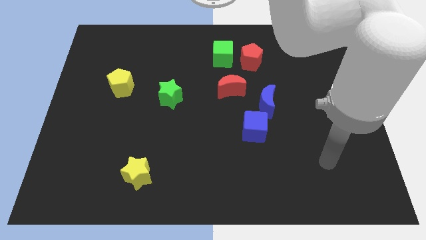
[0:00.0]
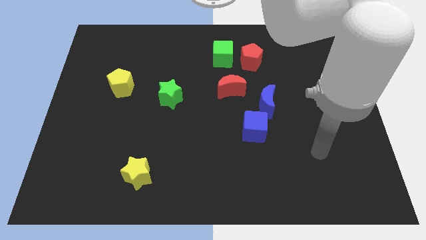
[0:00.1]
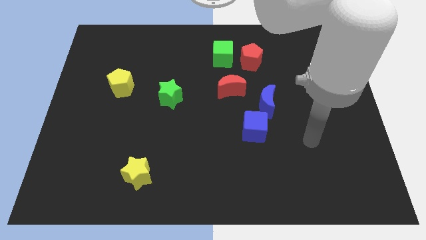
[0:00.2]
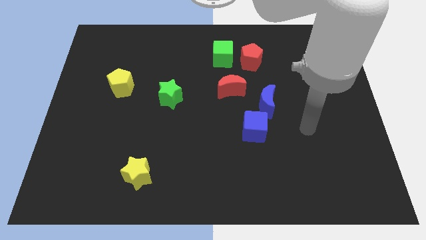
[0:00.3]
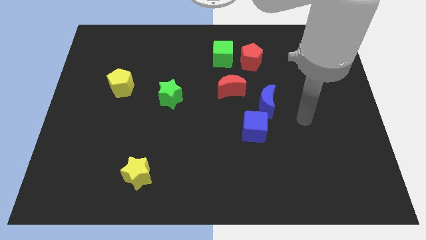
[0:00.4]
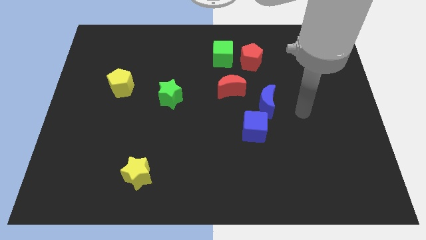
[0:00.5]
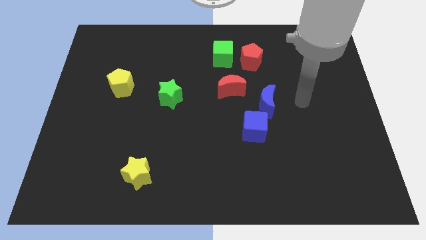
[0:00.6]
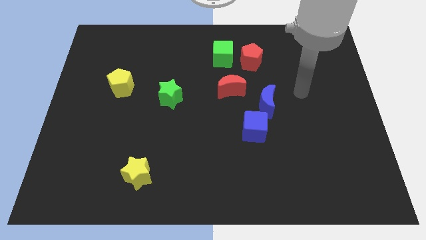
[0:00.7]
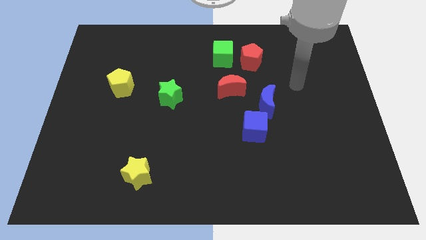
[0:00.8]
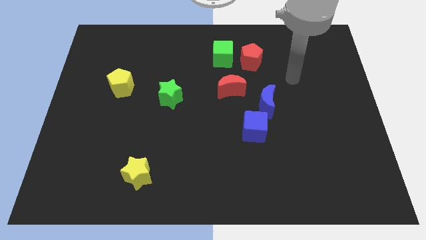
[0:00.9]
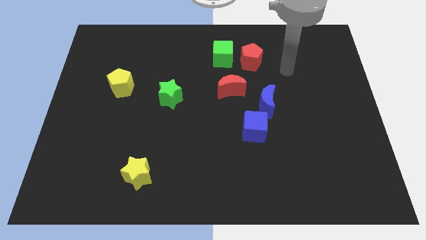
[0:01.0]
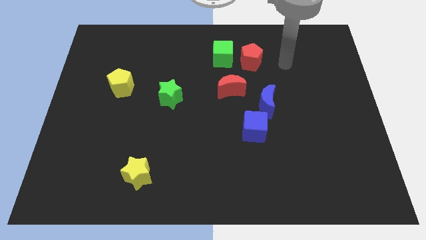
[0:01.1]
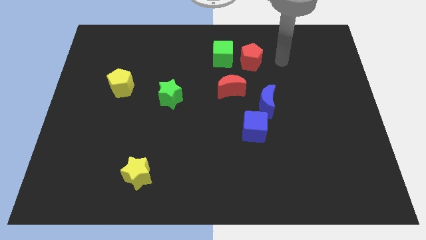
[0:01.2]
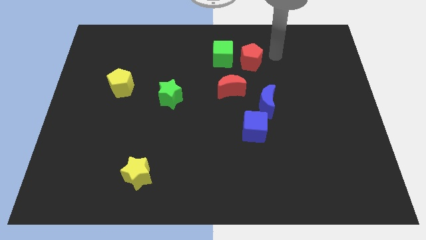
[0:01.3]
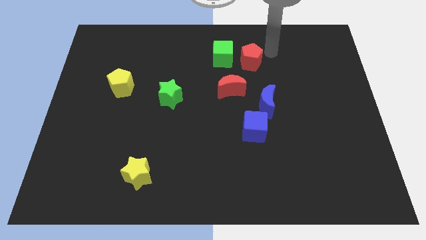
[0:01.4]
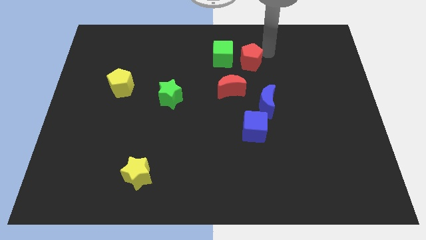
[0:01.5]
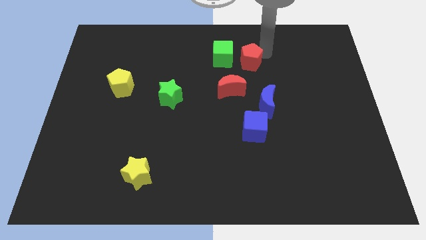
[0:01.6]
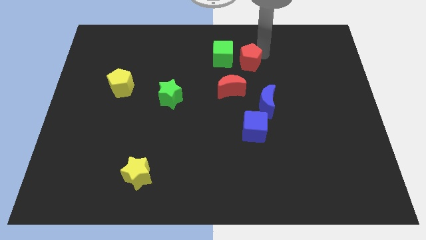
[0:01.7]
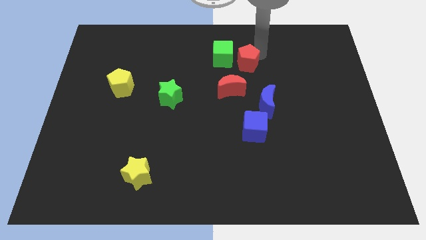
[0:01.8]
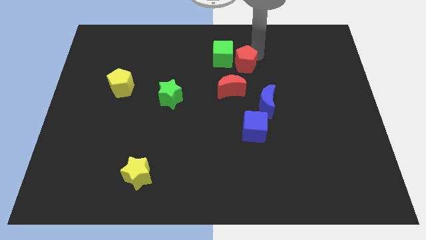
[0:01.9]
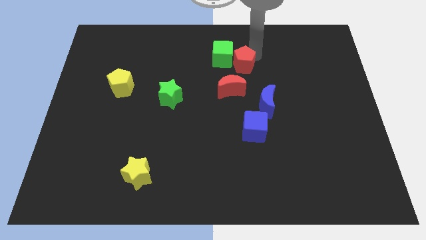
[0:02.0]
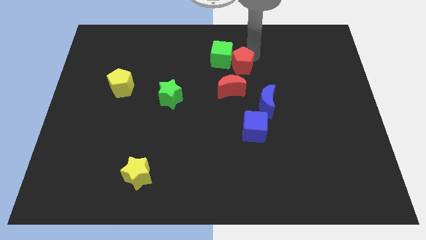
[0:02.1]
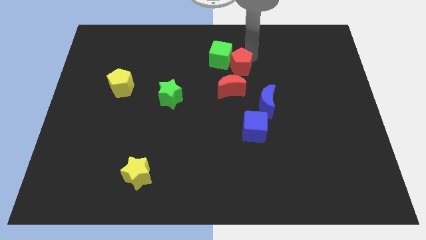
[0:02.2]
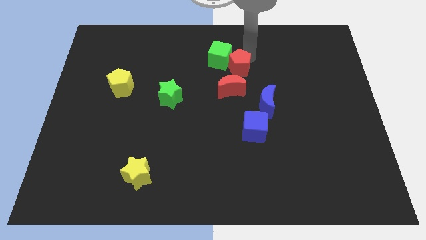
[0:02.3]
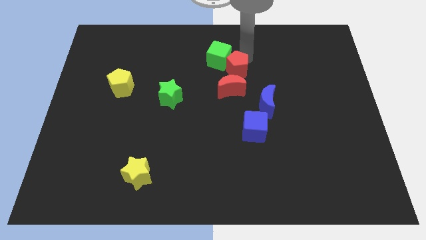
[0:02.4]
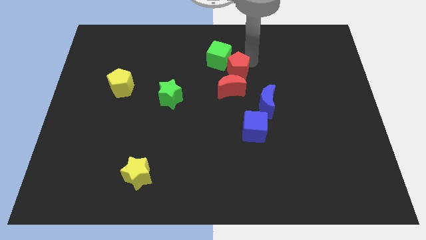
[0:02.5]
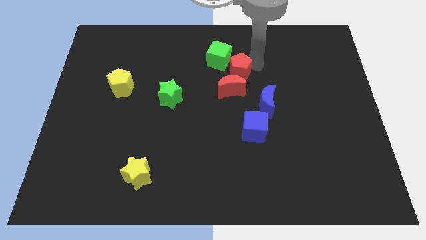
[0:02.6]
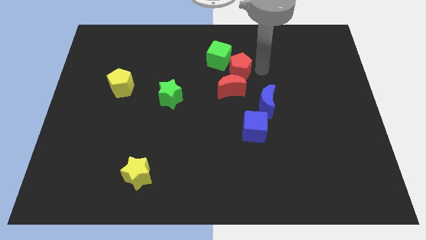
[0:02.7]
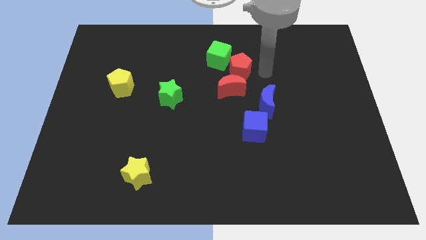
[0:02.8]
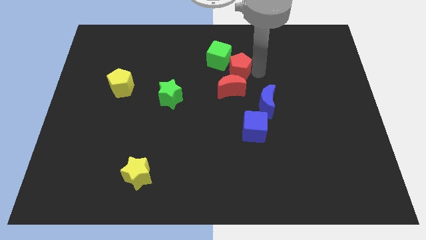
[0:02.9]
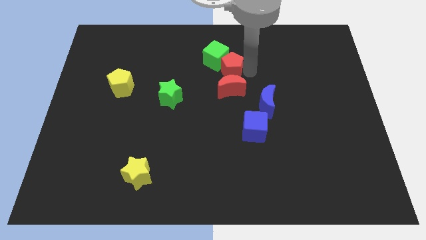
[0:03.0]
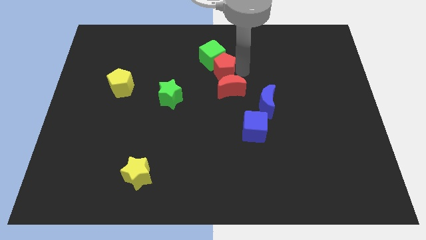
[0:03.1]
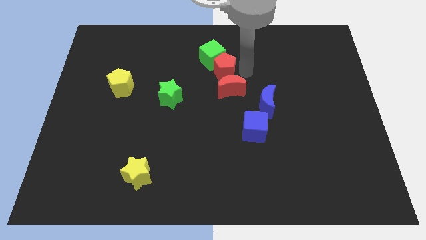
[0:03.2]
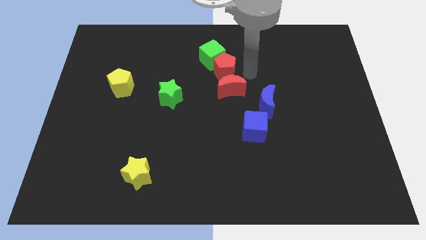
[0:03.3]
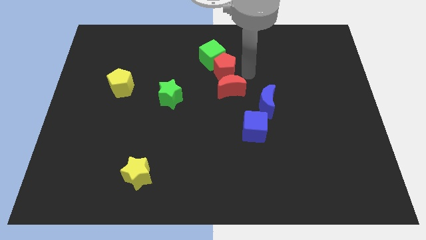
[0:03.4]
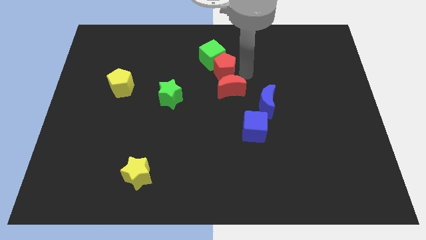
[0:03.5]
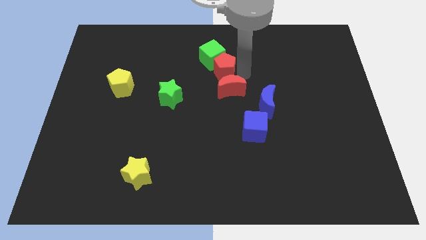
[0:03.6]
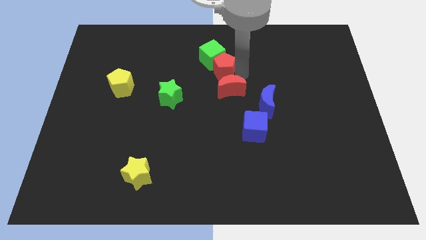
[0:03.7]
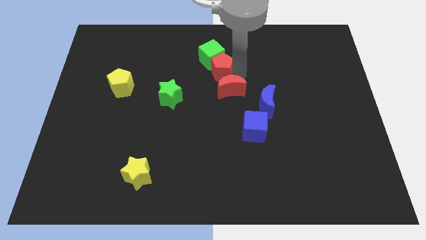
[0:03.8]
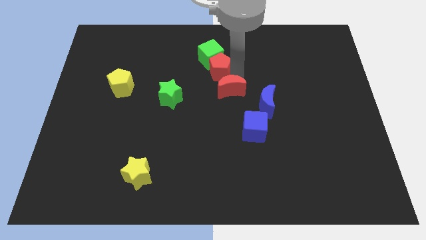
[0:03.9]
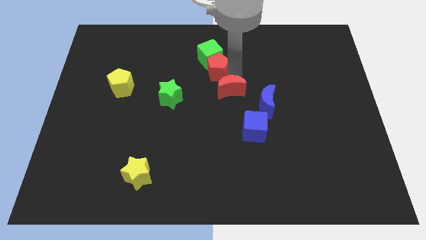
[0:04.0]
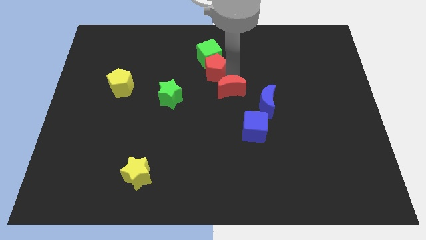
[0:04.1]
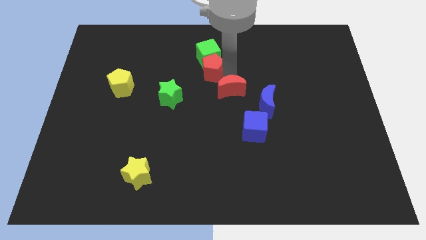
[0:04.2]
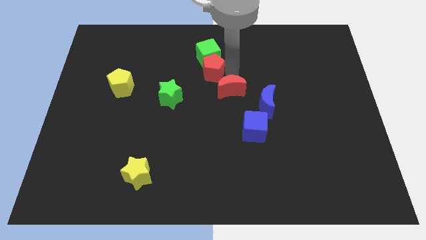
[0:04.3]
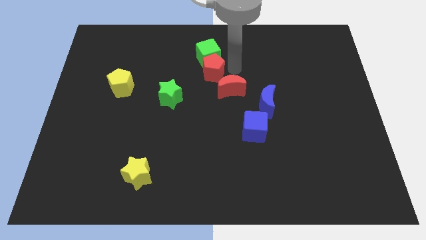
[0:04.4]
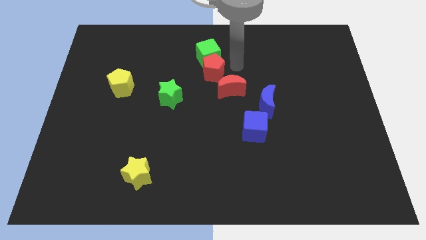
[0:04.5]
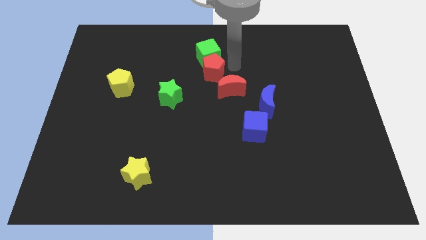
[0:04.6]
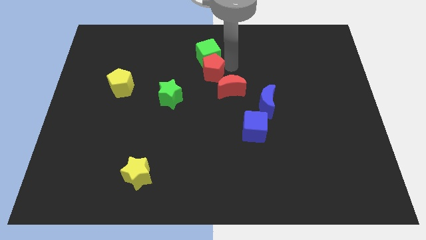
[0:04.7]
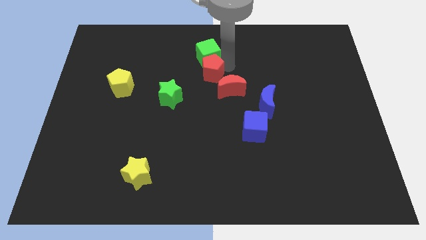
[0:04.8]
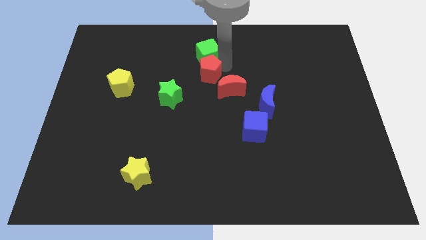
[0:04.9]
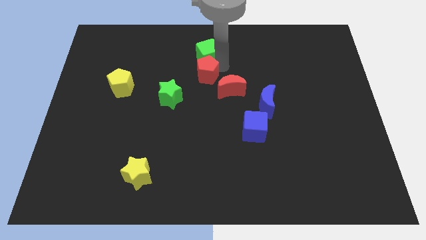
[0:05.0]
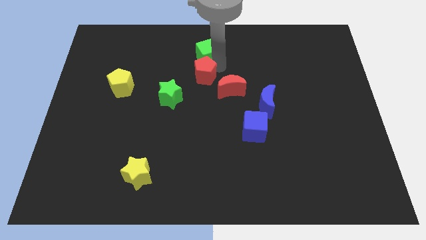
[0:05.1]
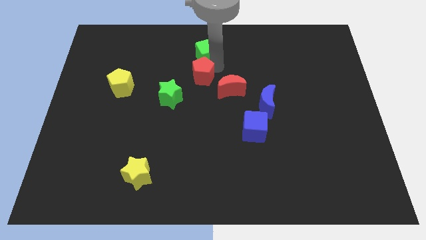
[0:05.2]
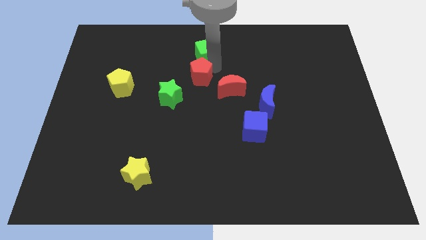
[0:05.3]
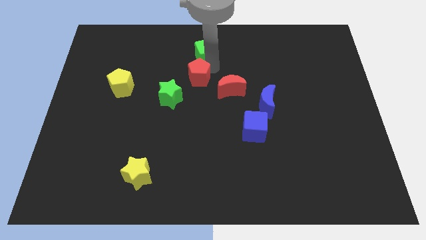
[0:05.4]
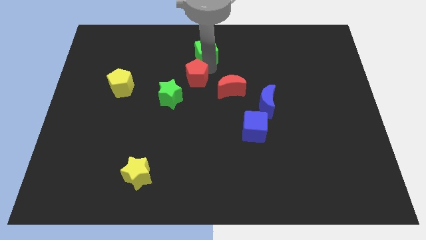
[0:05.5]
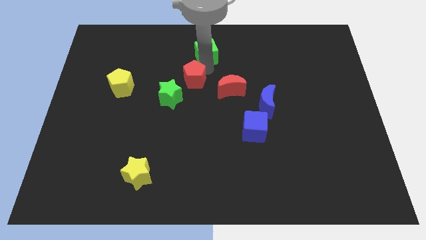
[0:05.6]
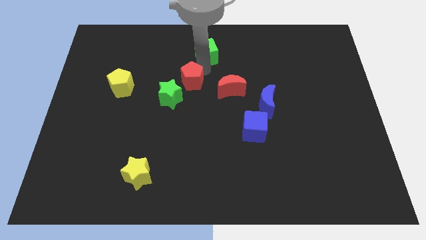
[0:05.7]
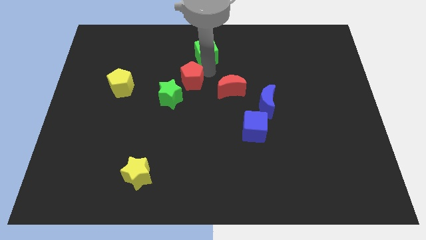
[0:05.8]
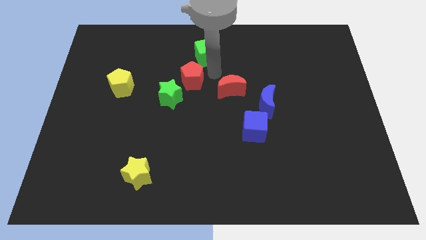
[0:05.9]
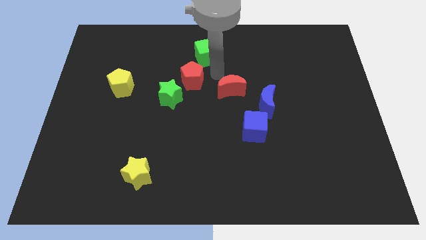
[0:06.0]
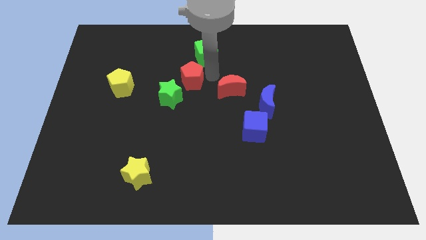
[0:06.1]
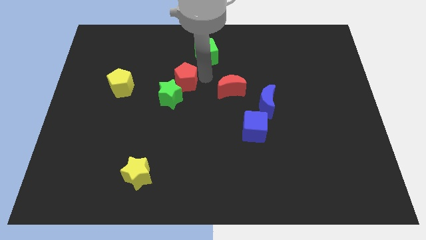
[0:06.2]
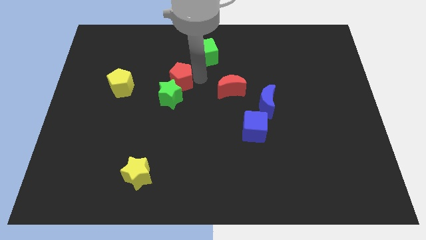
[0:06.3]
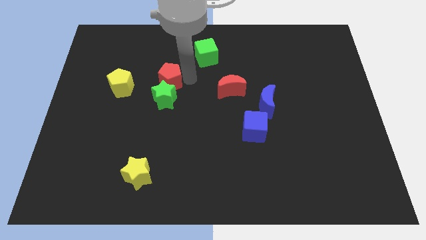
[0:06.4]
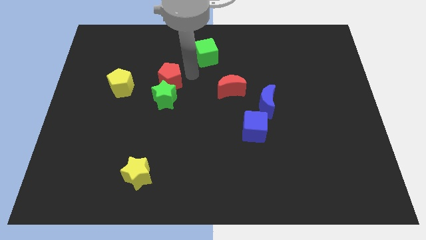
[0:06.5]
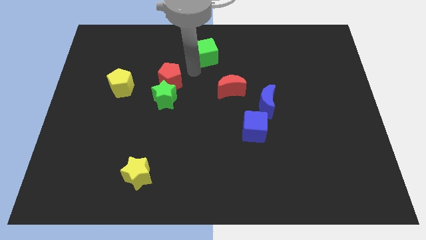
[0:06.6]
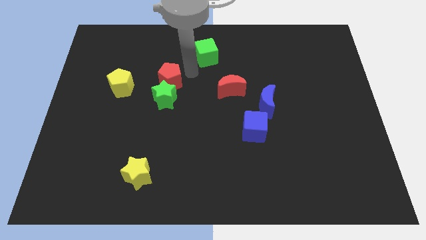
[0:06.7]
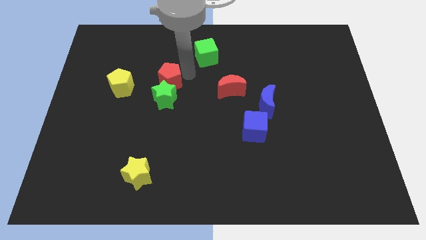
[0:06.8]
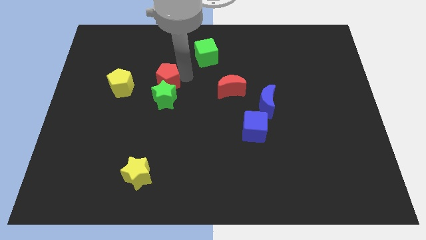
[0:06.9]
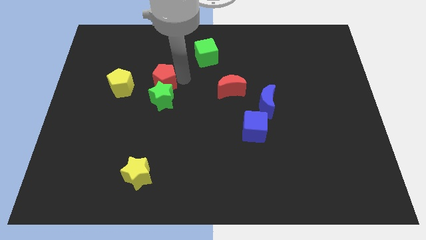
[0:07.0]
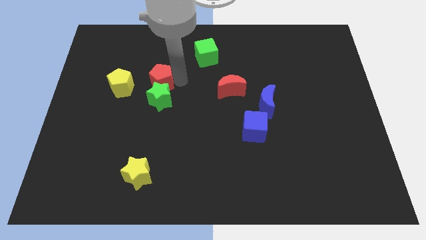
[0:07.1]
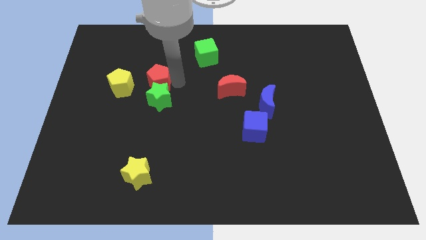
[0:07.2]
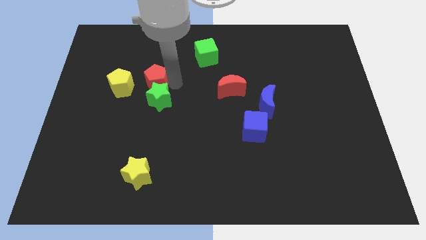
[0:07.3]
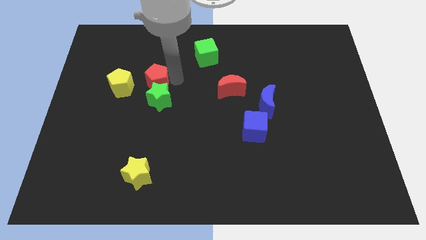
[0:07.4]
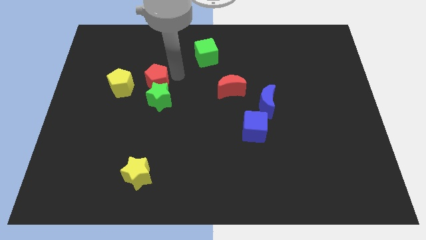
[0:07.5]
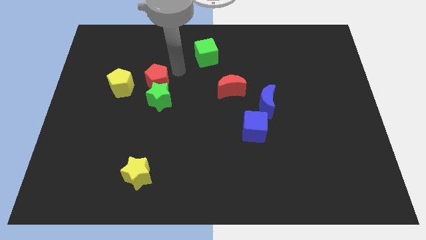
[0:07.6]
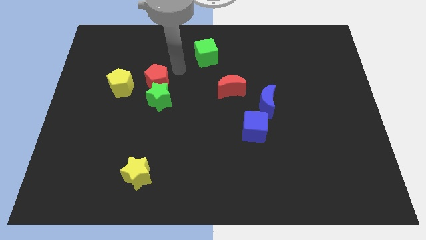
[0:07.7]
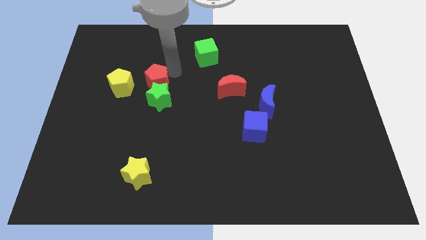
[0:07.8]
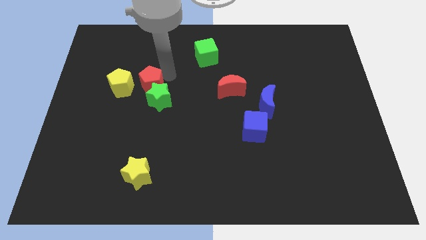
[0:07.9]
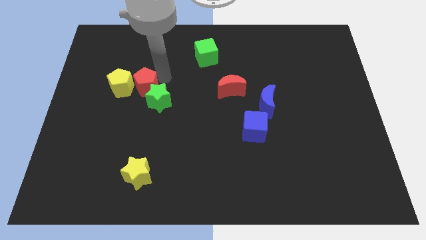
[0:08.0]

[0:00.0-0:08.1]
slide the red pentagon just left of the green star
